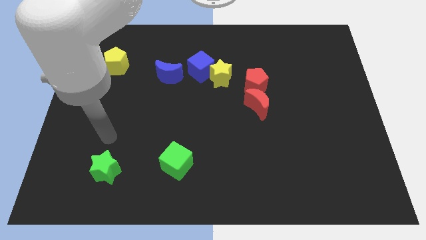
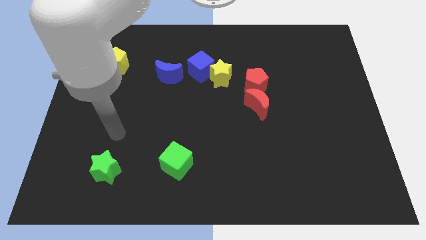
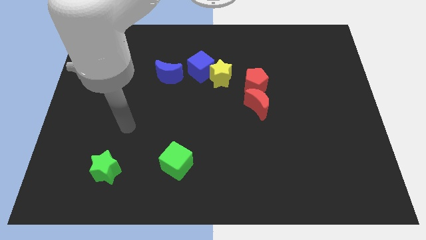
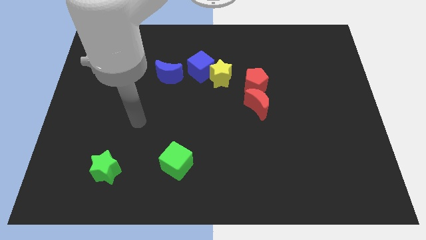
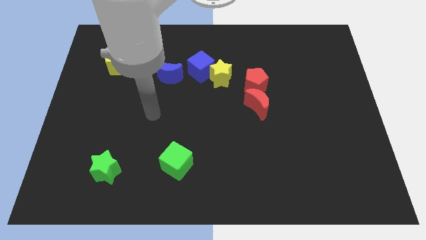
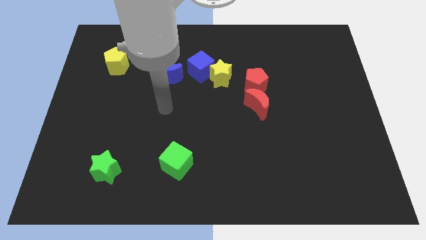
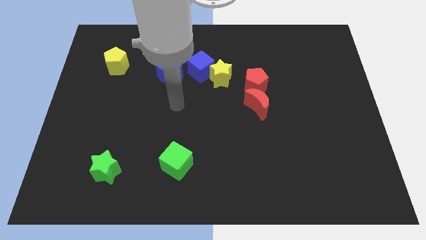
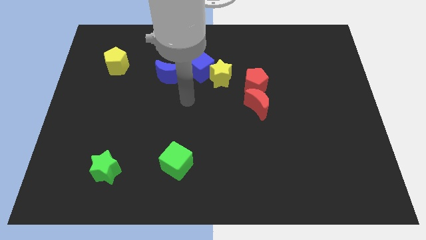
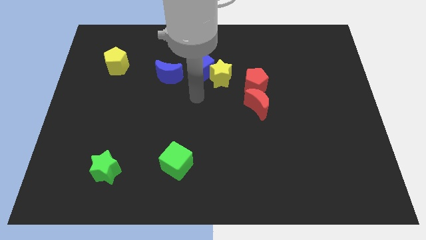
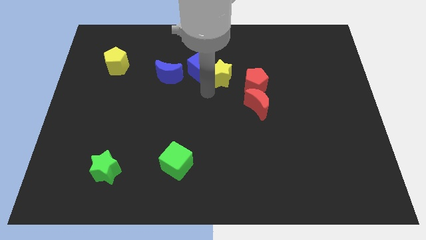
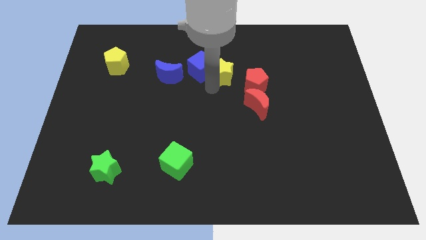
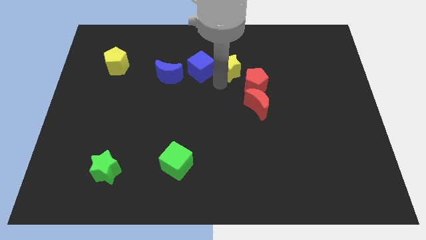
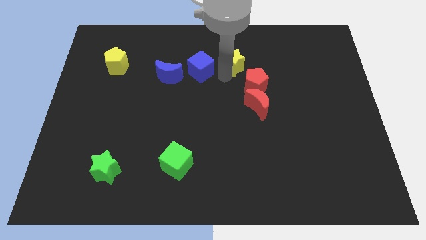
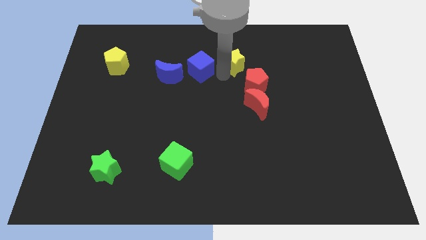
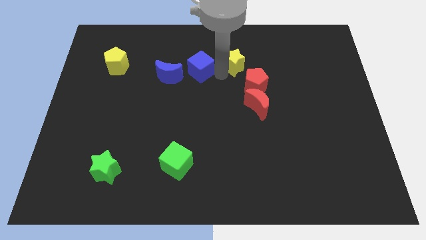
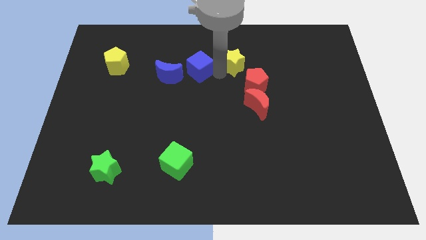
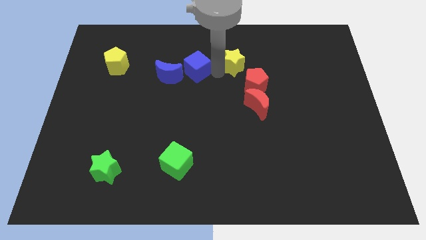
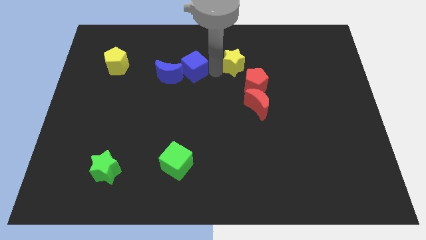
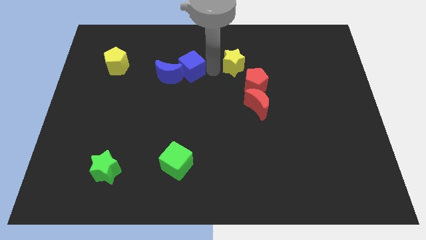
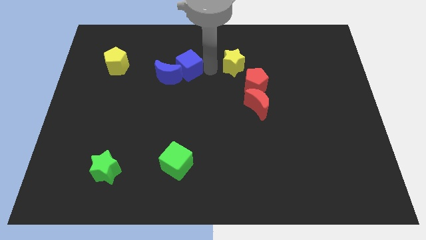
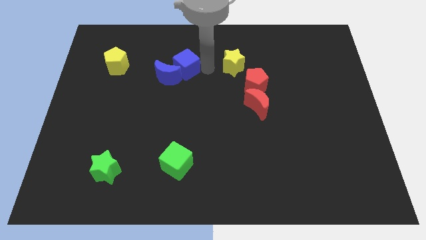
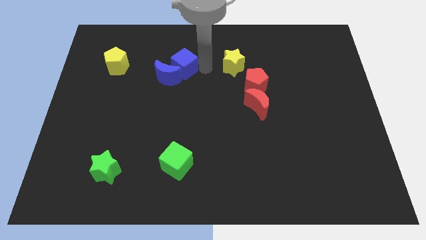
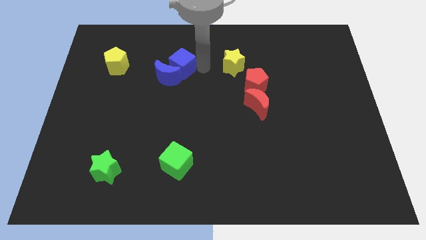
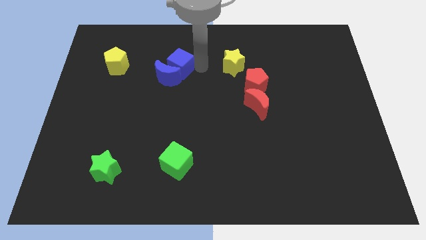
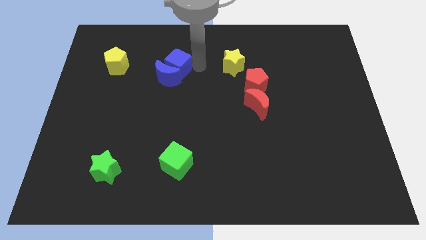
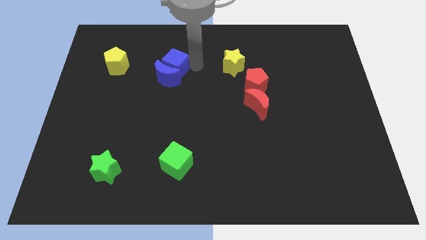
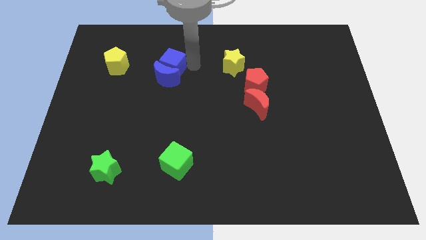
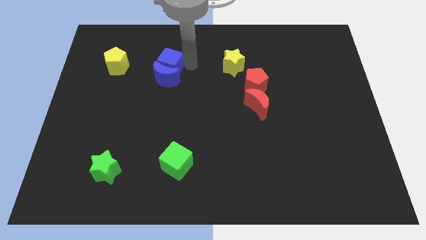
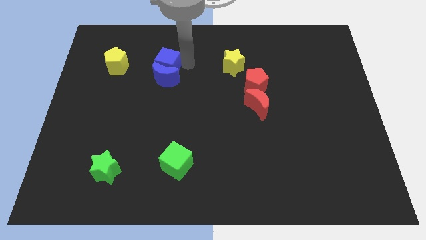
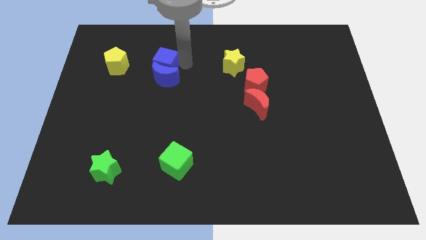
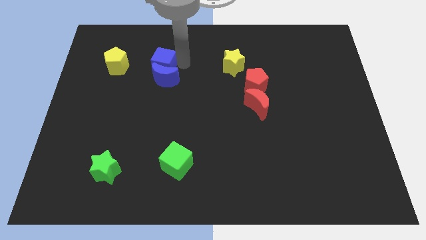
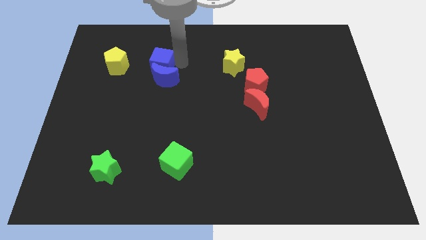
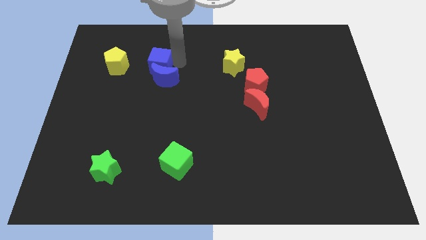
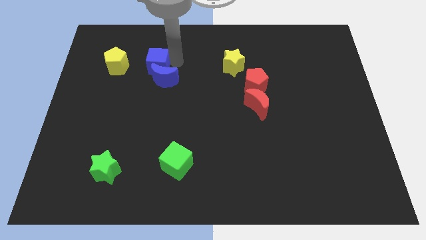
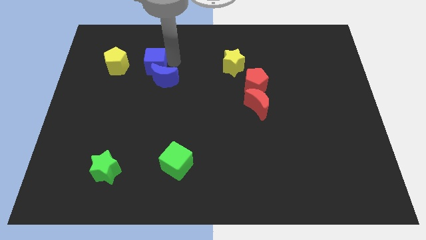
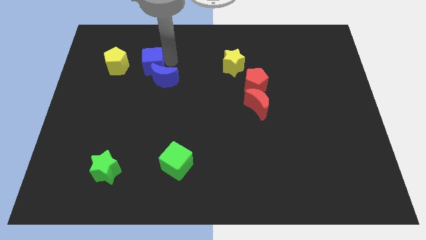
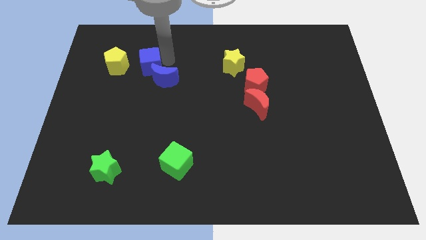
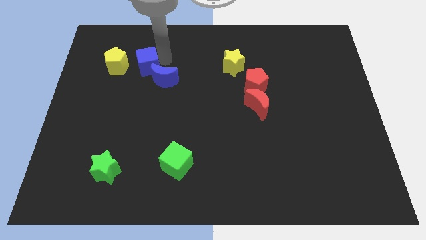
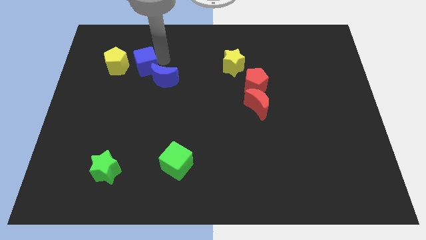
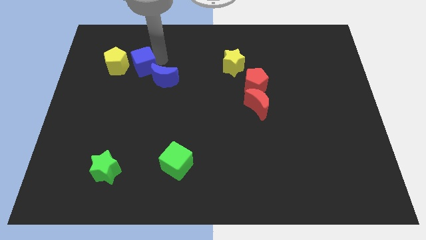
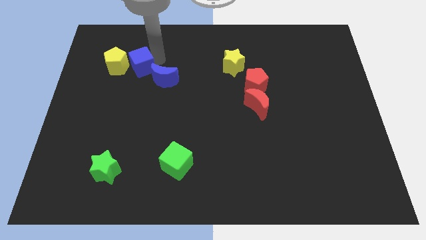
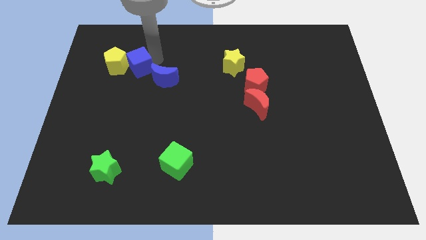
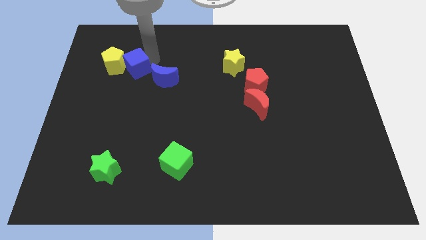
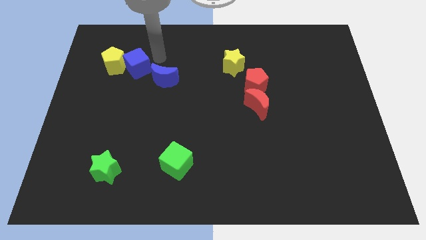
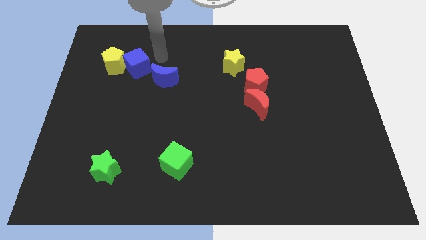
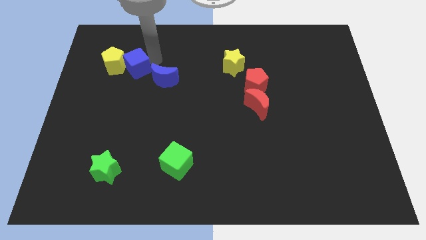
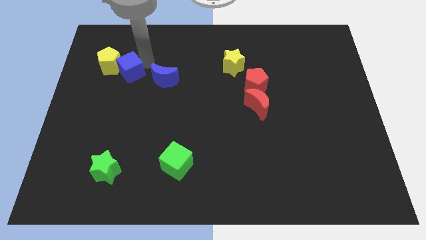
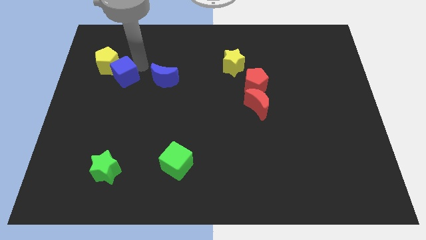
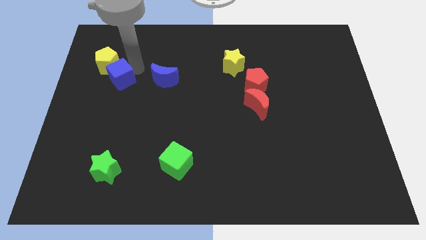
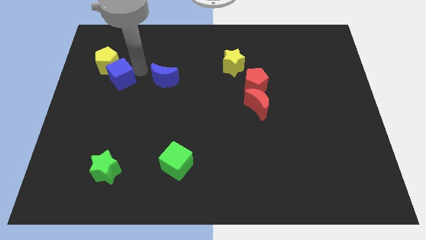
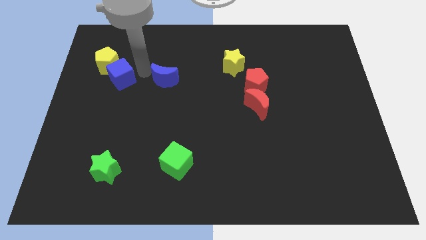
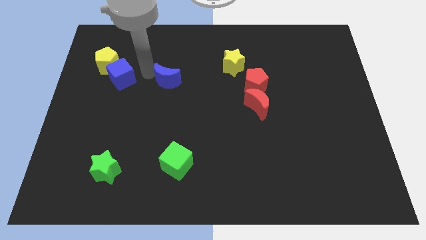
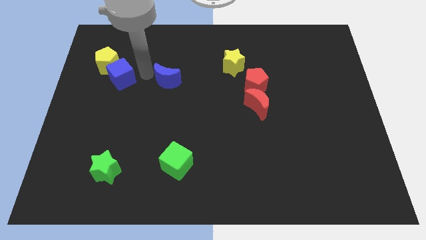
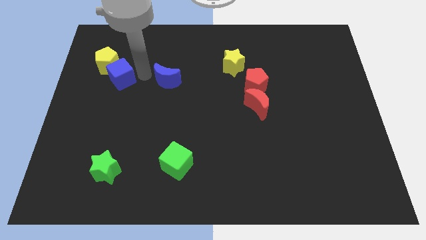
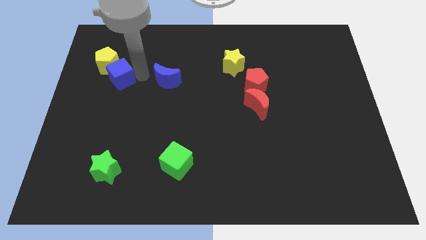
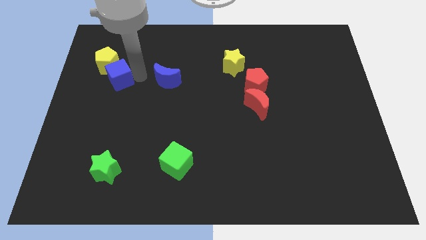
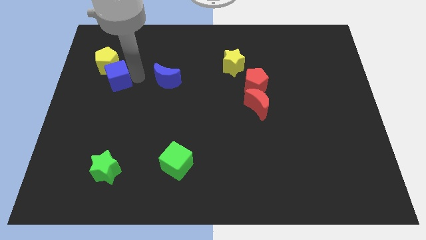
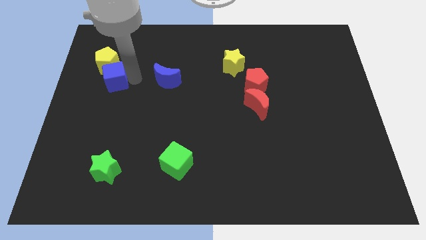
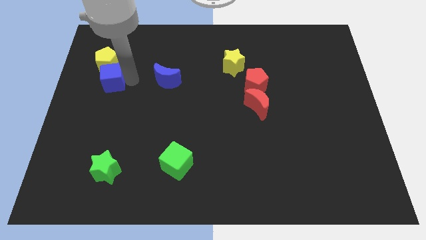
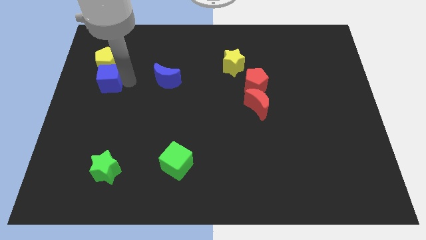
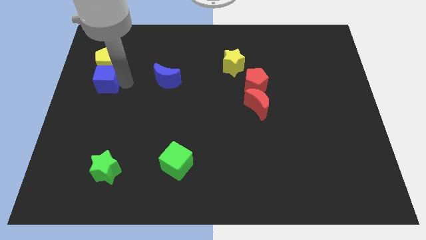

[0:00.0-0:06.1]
slide the blue cube to the left side of the board

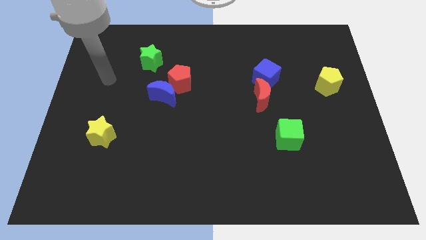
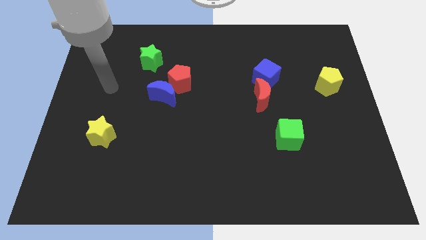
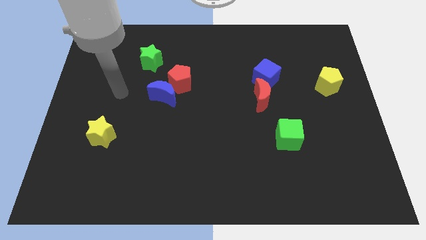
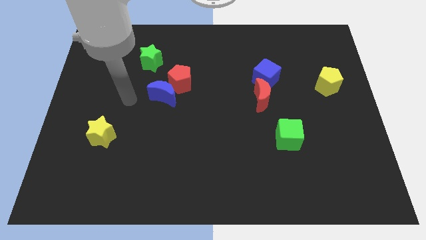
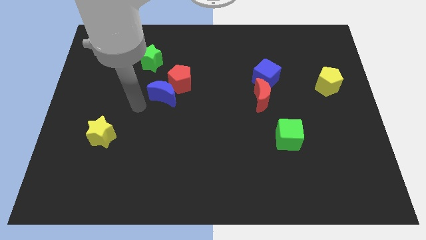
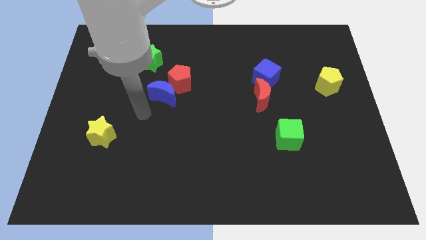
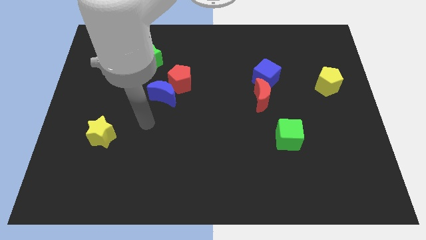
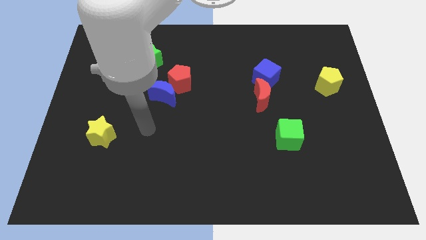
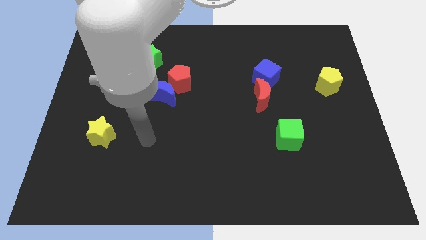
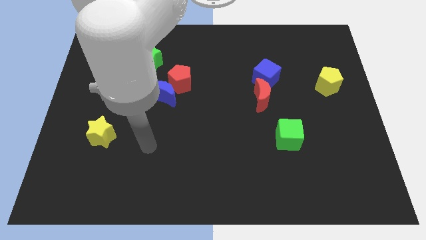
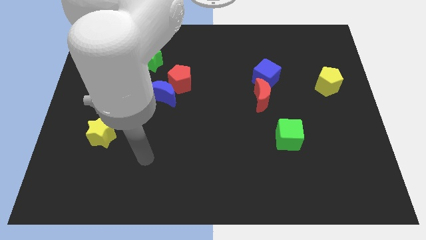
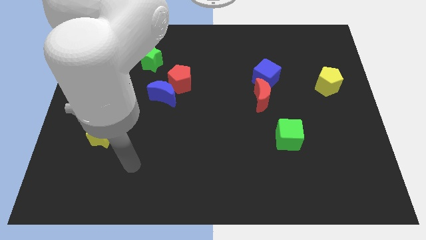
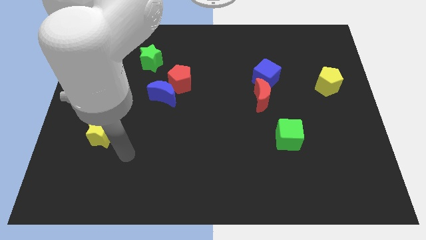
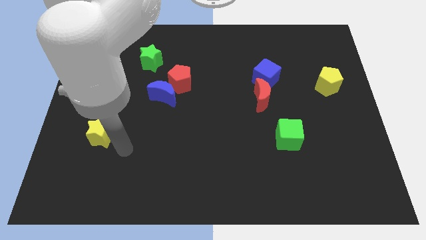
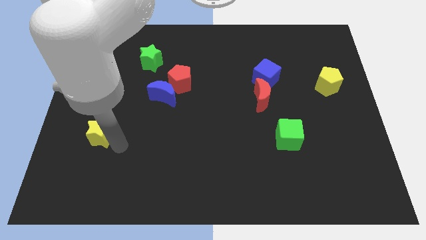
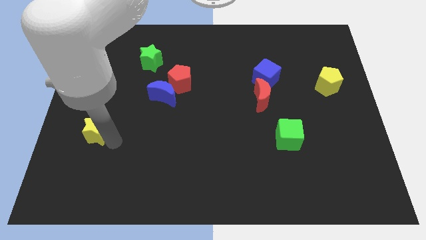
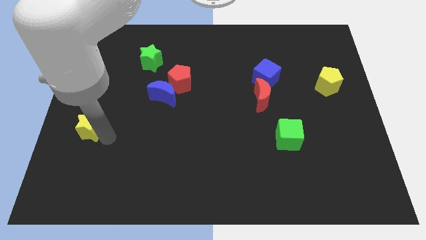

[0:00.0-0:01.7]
move the yellow star to the left side

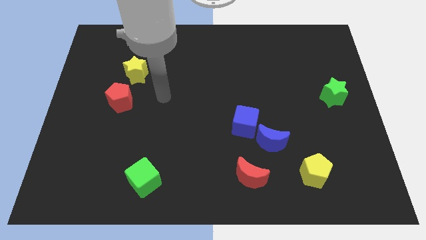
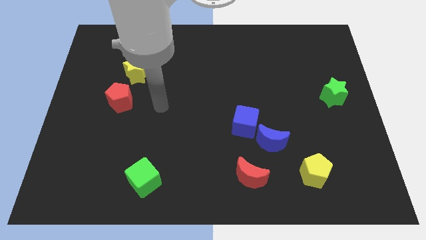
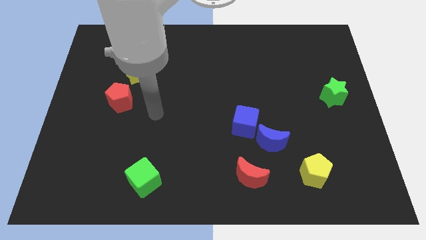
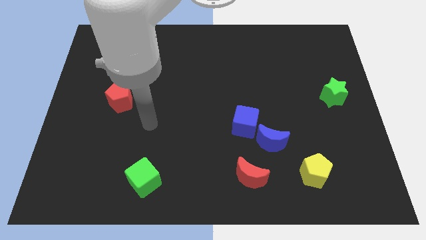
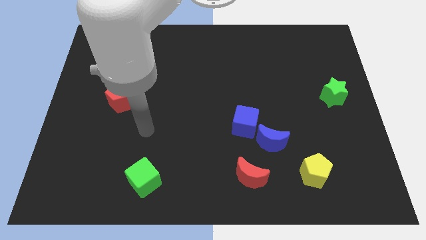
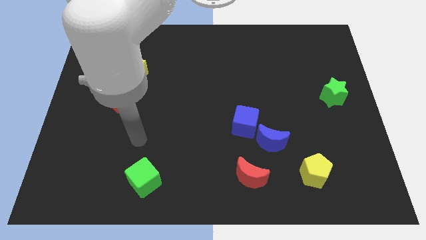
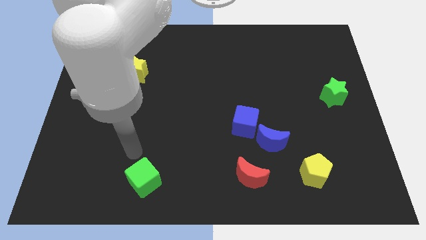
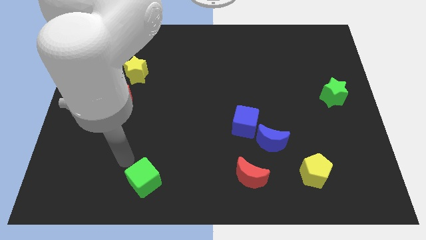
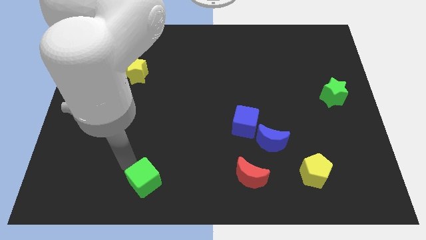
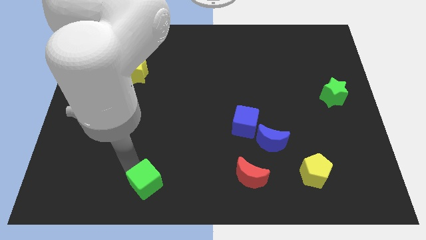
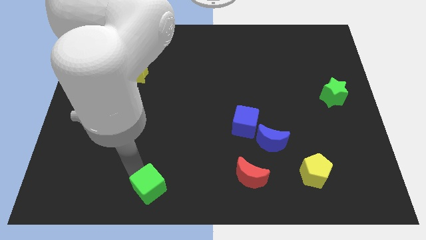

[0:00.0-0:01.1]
slide the green cube to the bottom side
